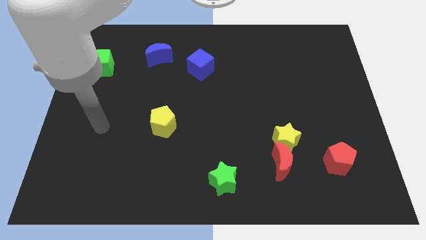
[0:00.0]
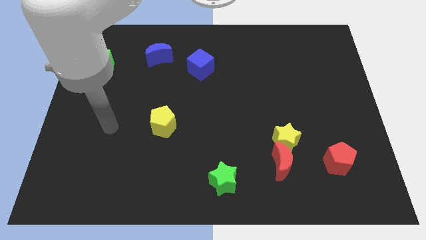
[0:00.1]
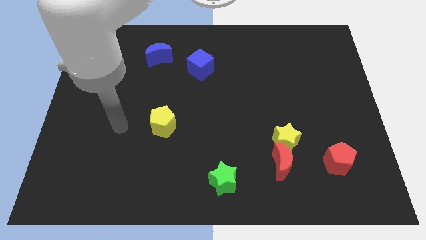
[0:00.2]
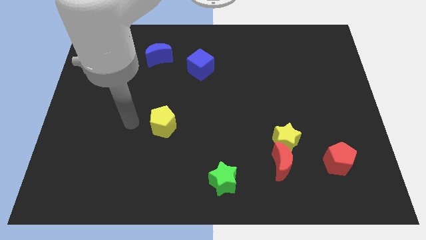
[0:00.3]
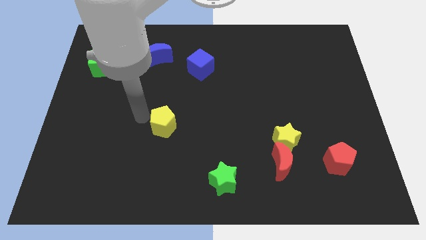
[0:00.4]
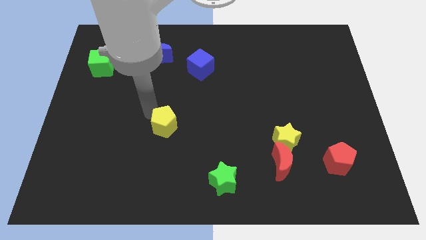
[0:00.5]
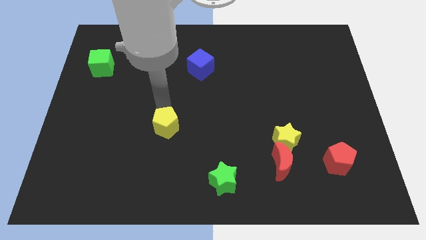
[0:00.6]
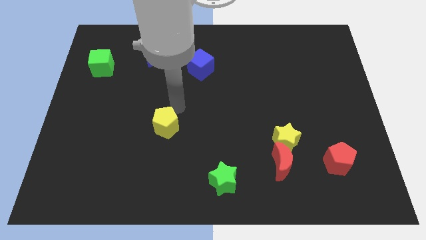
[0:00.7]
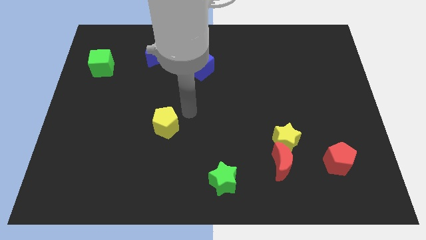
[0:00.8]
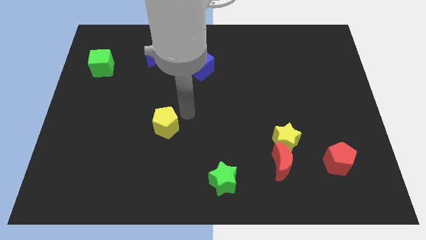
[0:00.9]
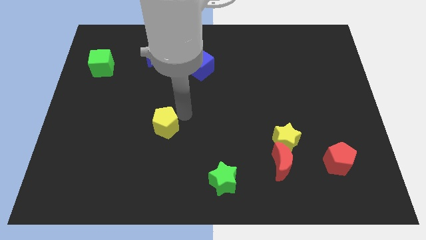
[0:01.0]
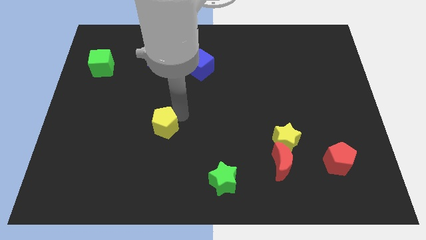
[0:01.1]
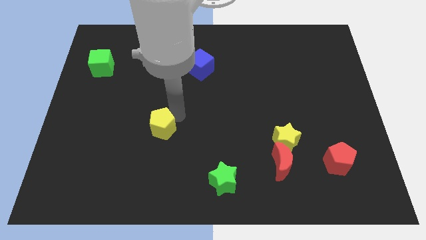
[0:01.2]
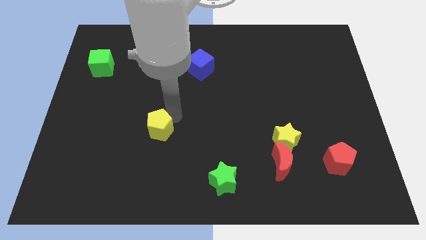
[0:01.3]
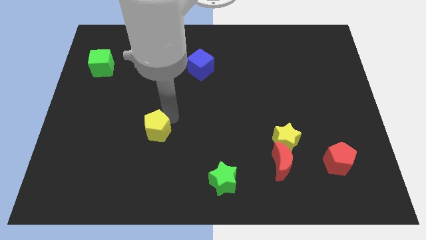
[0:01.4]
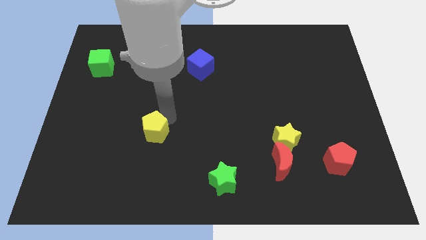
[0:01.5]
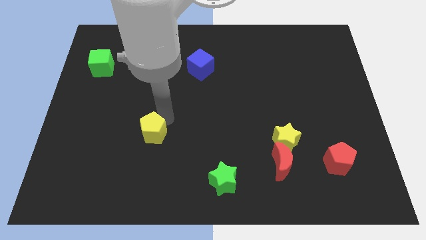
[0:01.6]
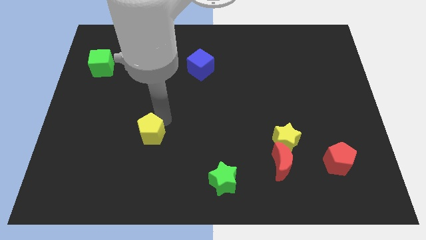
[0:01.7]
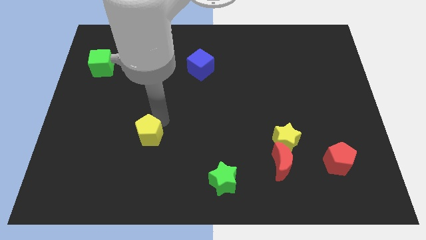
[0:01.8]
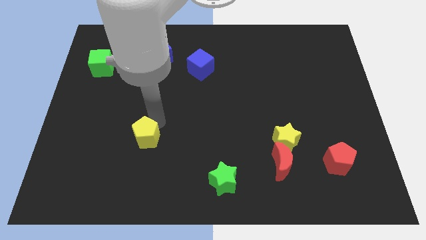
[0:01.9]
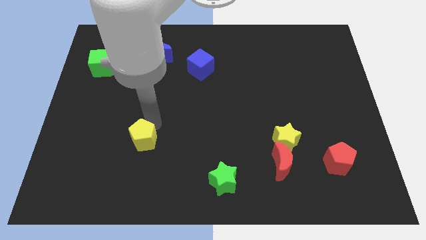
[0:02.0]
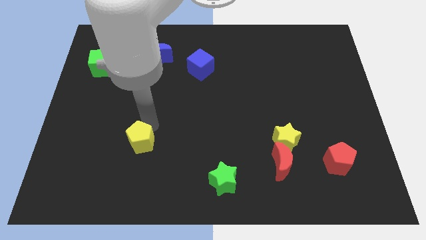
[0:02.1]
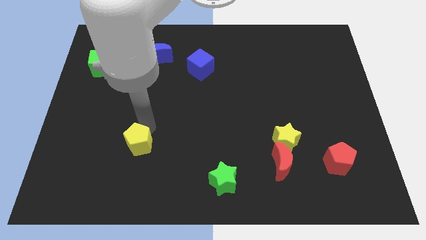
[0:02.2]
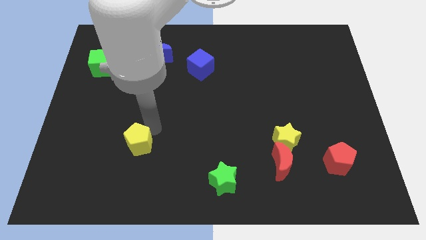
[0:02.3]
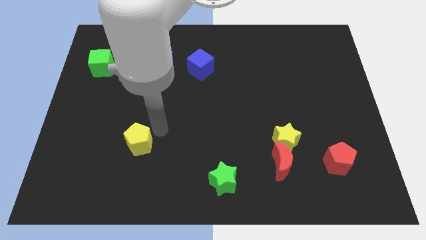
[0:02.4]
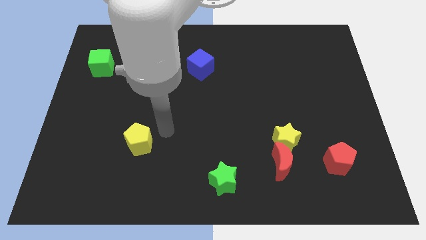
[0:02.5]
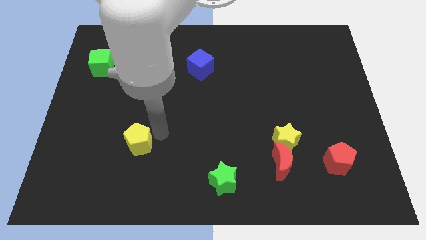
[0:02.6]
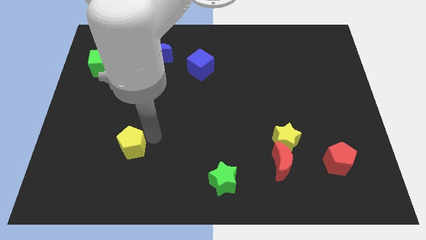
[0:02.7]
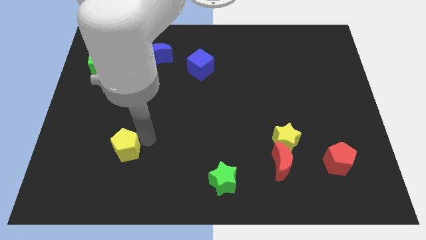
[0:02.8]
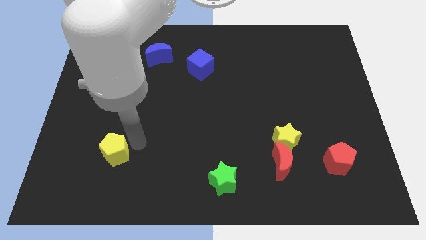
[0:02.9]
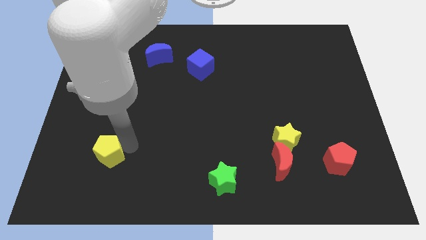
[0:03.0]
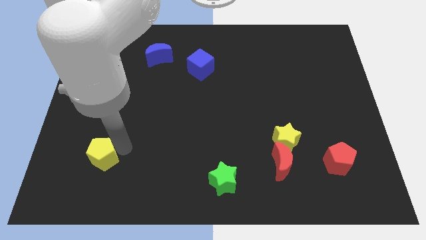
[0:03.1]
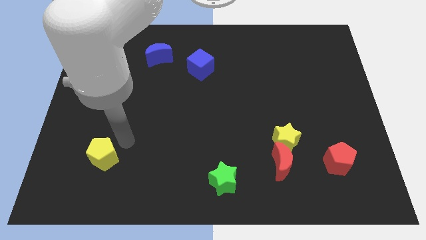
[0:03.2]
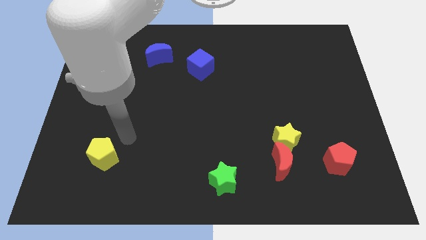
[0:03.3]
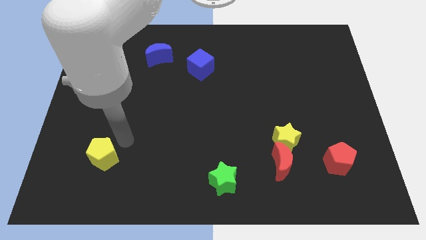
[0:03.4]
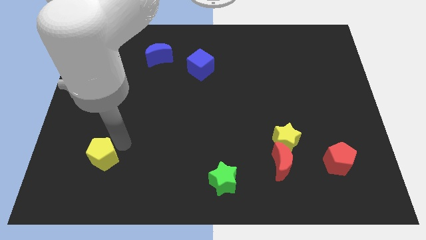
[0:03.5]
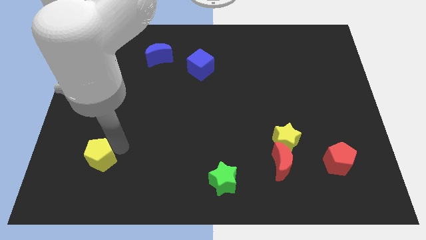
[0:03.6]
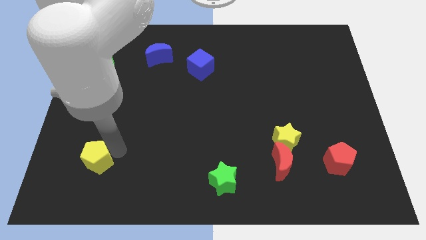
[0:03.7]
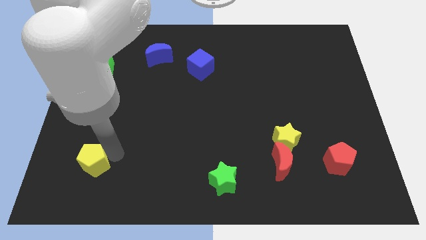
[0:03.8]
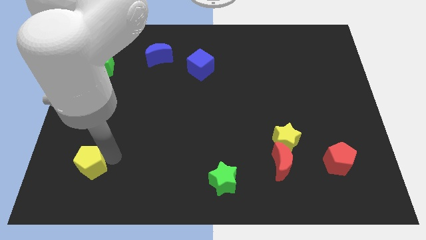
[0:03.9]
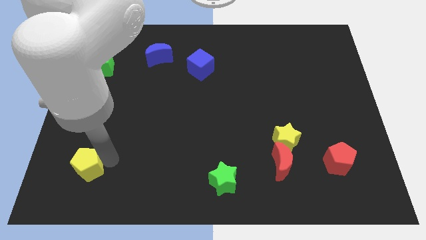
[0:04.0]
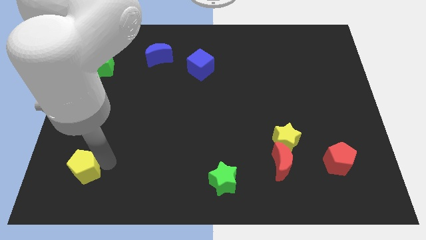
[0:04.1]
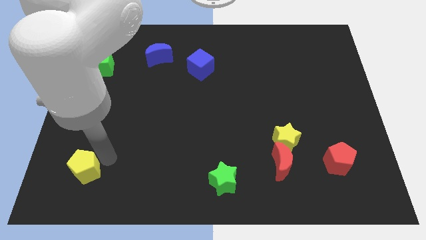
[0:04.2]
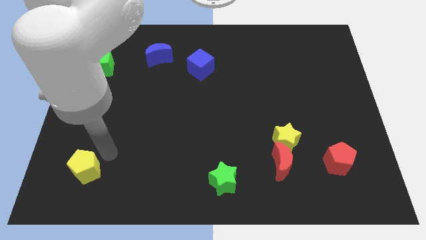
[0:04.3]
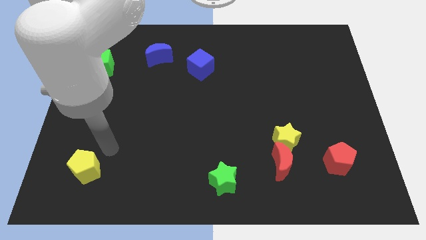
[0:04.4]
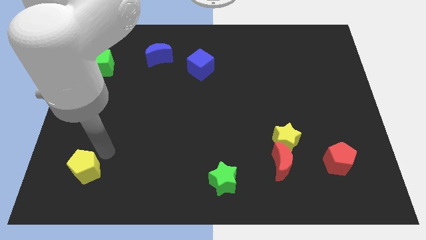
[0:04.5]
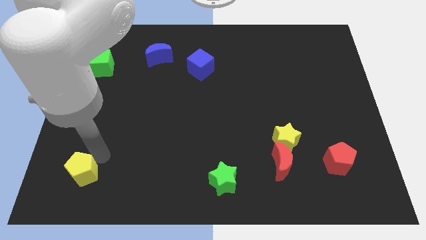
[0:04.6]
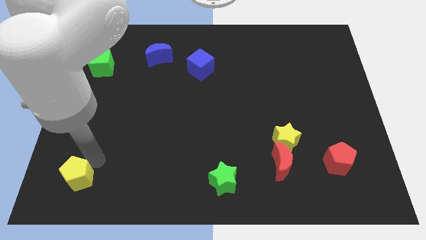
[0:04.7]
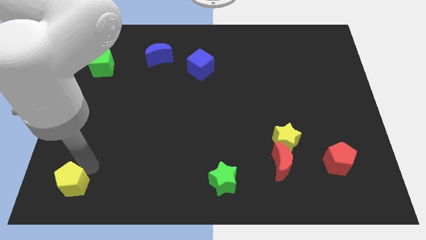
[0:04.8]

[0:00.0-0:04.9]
move the yellow pentagon to the bottom left
